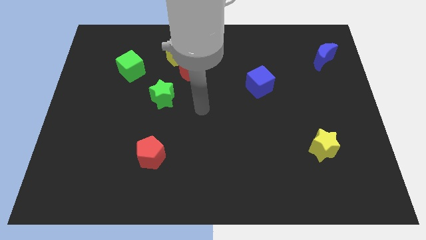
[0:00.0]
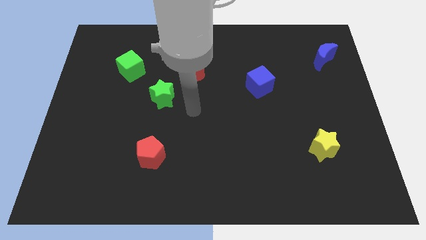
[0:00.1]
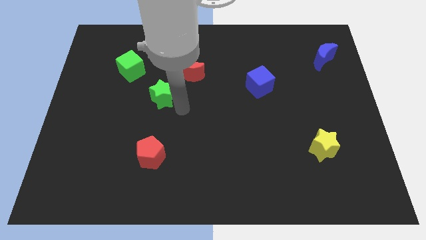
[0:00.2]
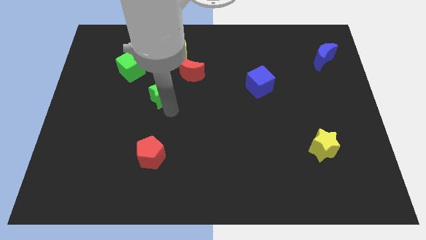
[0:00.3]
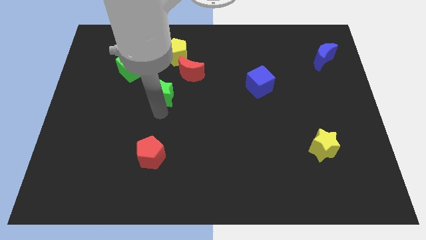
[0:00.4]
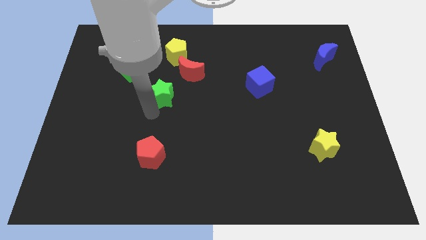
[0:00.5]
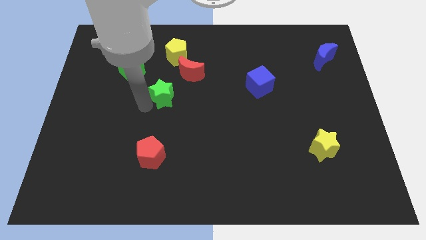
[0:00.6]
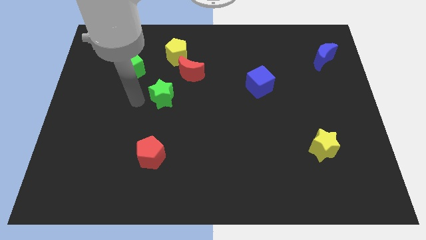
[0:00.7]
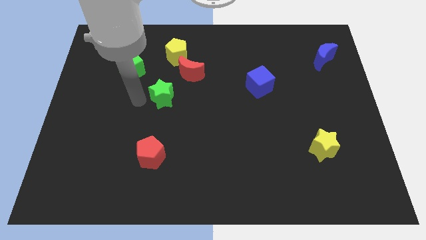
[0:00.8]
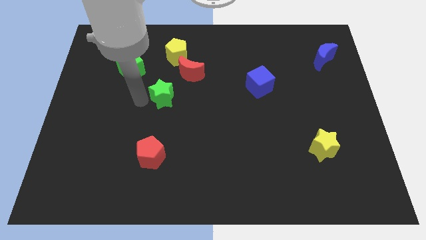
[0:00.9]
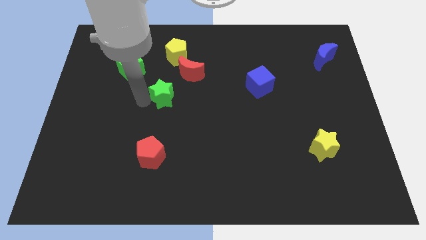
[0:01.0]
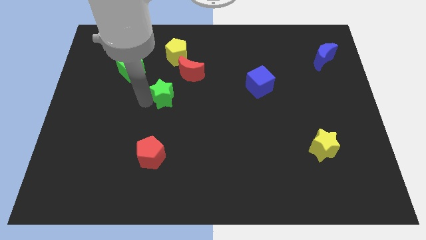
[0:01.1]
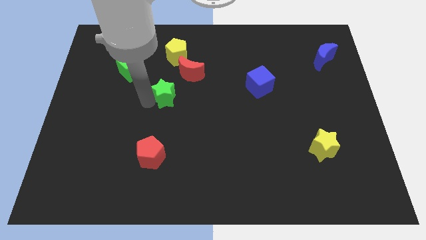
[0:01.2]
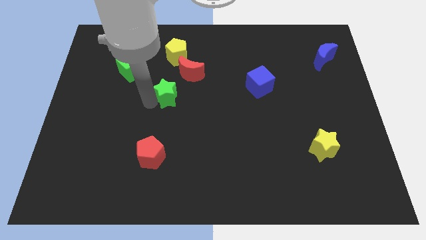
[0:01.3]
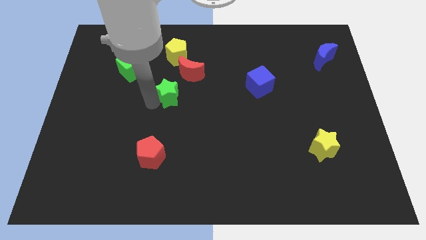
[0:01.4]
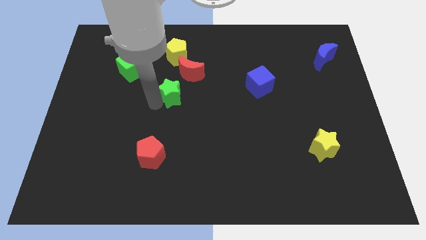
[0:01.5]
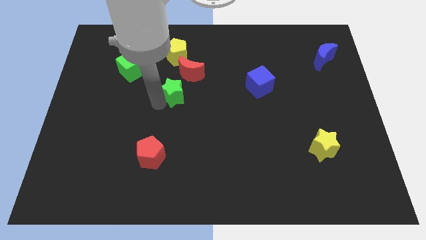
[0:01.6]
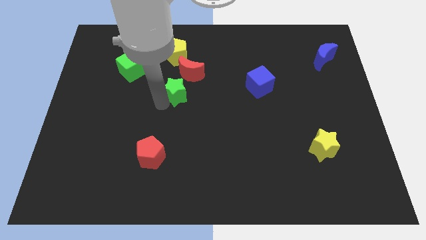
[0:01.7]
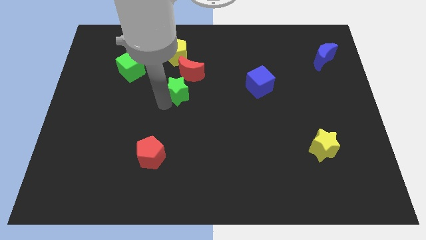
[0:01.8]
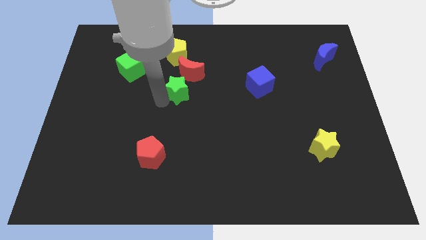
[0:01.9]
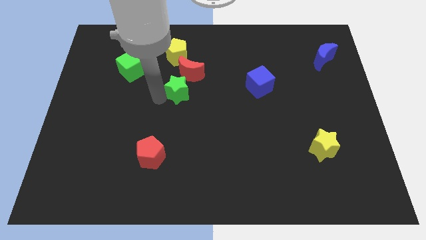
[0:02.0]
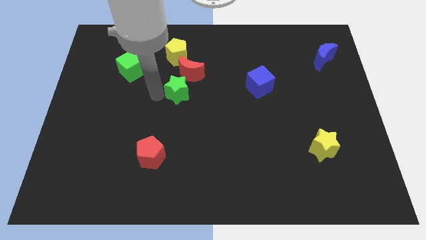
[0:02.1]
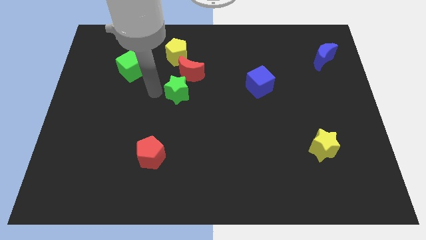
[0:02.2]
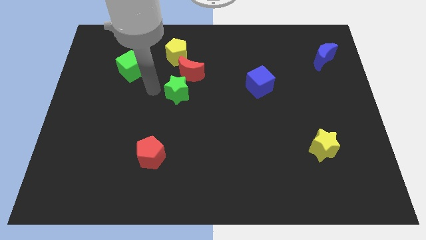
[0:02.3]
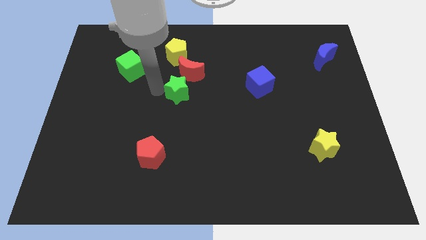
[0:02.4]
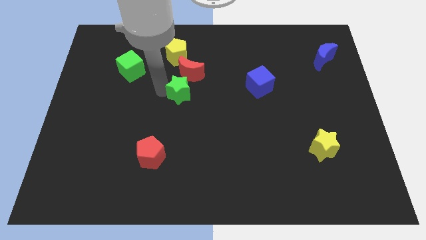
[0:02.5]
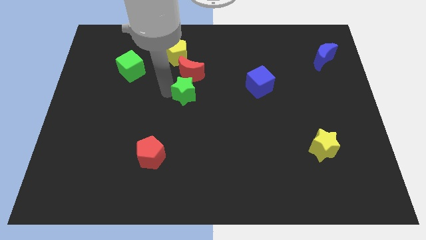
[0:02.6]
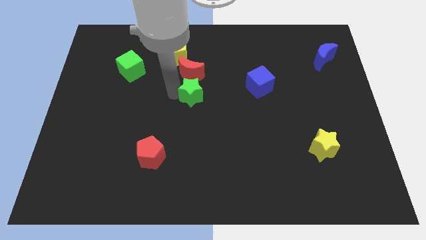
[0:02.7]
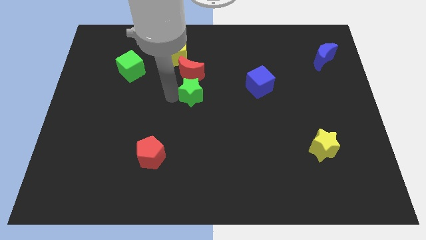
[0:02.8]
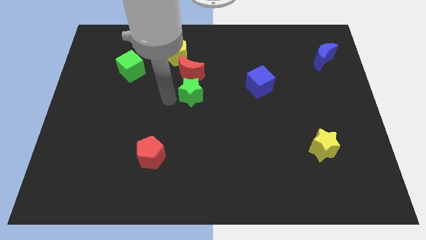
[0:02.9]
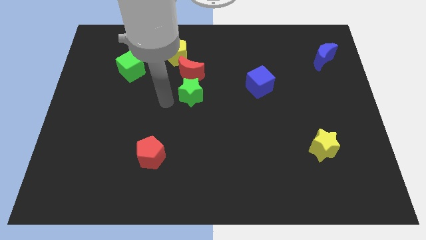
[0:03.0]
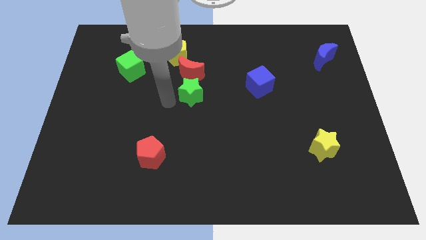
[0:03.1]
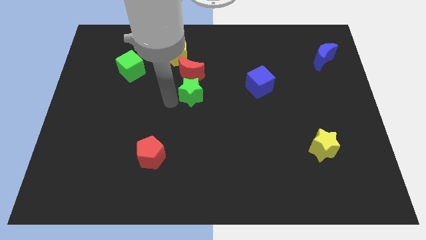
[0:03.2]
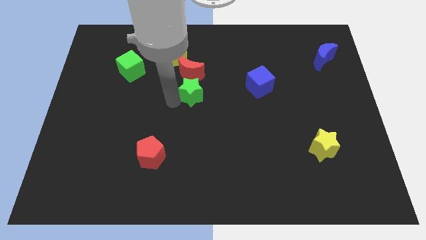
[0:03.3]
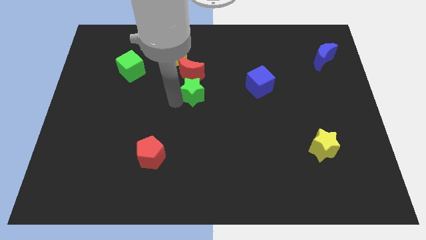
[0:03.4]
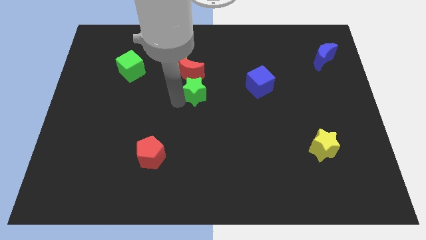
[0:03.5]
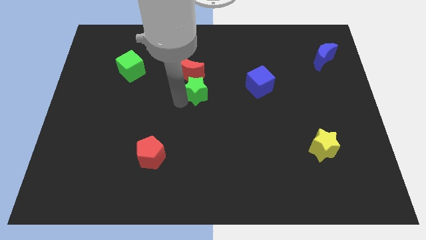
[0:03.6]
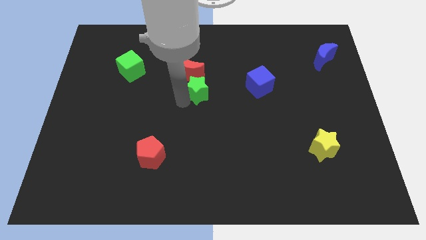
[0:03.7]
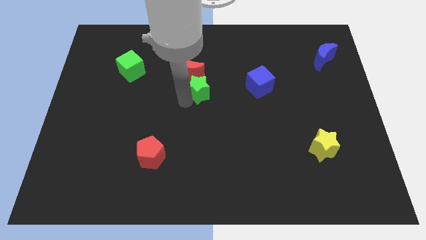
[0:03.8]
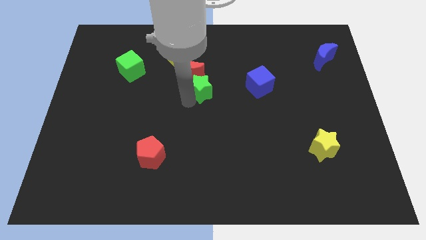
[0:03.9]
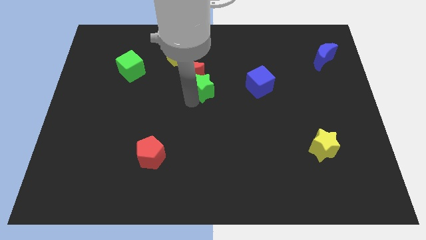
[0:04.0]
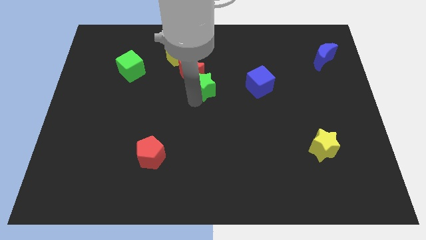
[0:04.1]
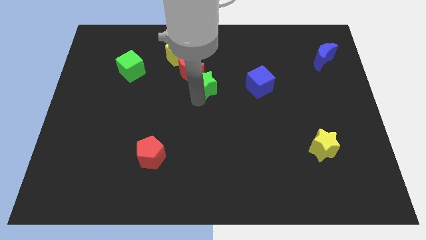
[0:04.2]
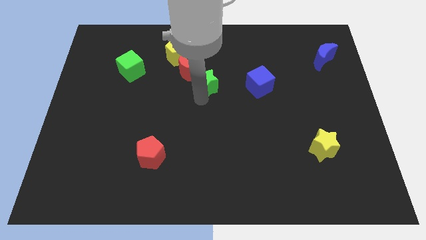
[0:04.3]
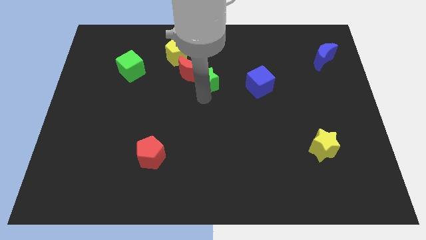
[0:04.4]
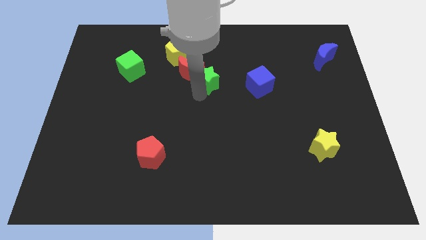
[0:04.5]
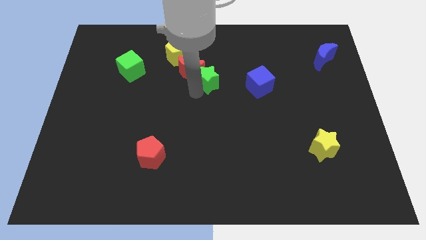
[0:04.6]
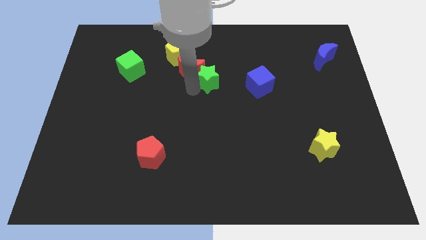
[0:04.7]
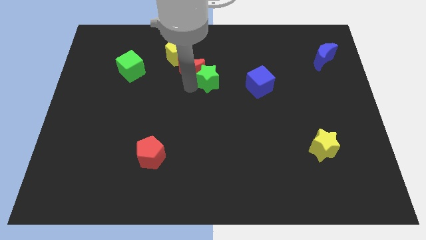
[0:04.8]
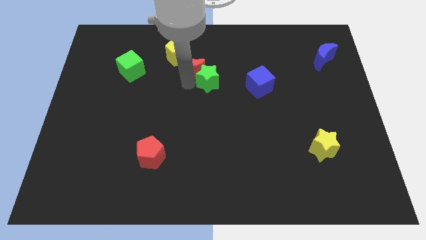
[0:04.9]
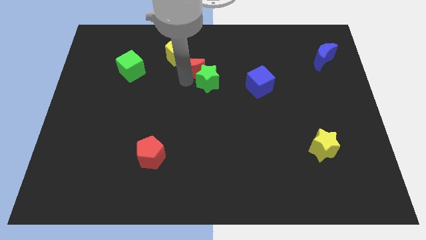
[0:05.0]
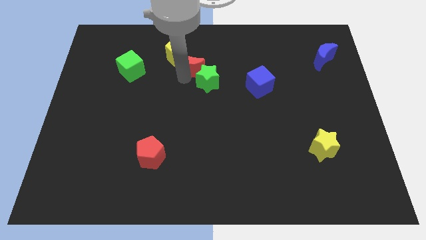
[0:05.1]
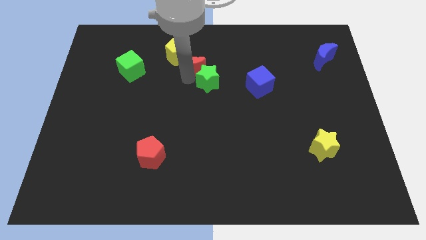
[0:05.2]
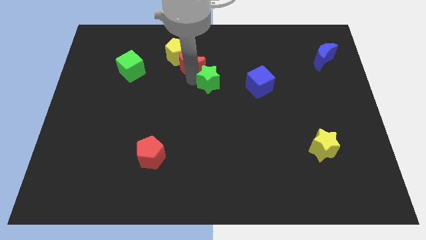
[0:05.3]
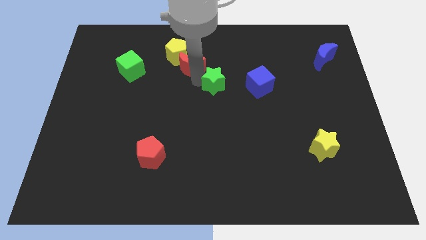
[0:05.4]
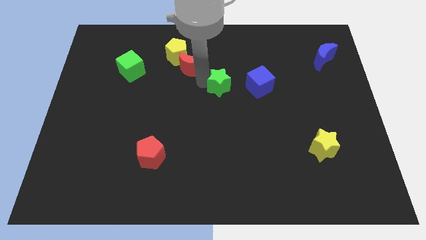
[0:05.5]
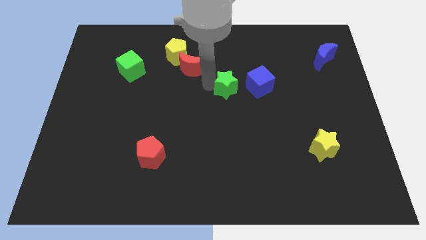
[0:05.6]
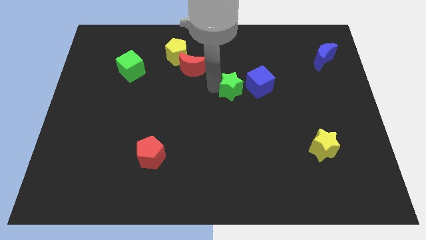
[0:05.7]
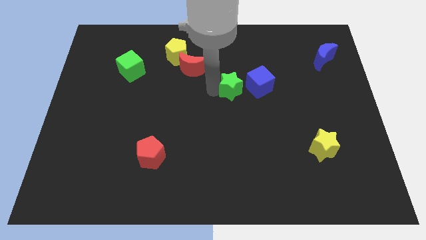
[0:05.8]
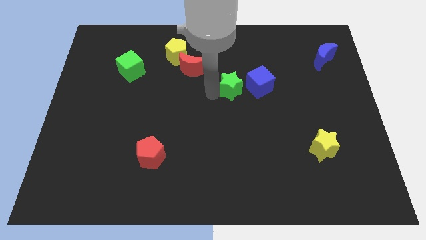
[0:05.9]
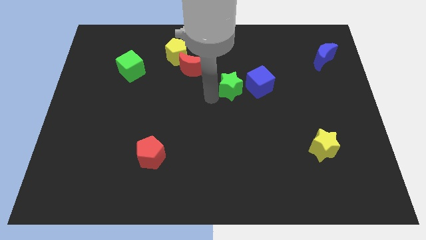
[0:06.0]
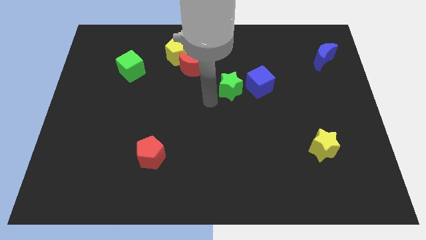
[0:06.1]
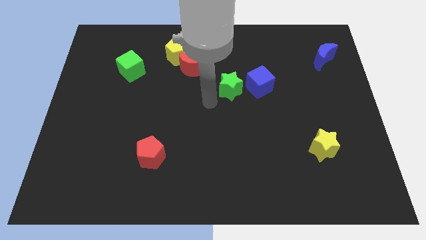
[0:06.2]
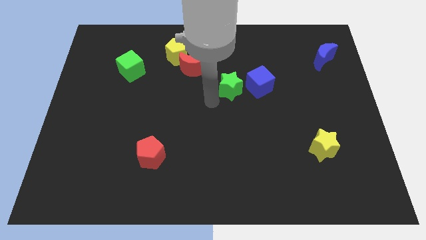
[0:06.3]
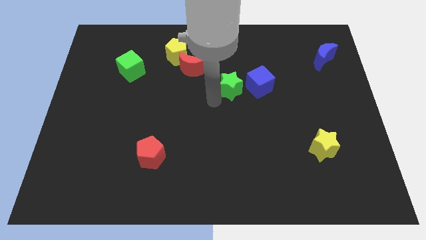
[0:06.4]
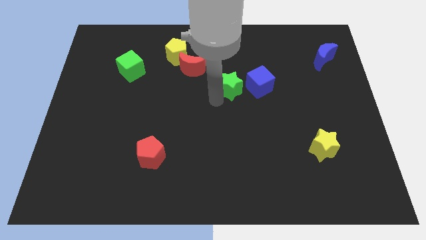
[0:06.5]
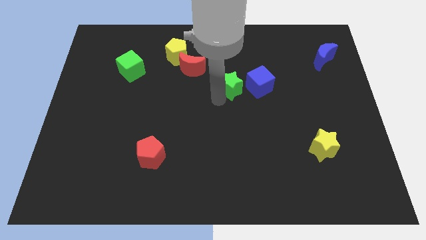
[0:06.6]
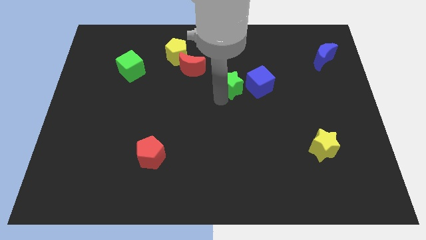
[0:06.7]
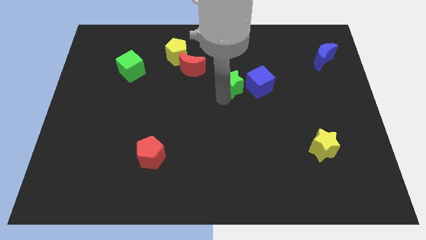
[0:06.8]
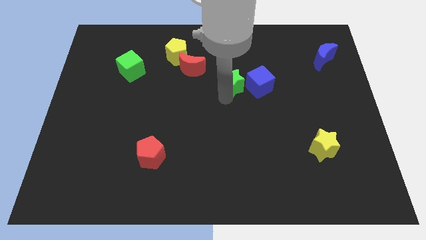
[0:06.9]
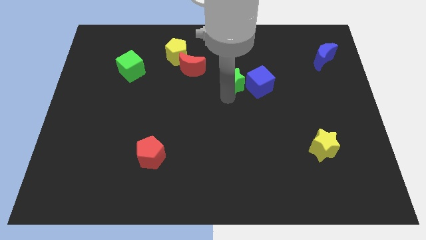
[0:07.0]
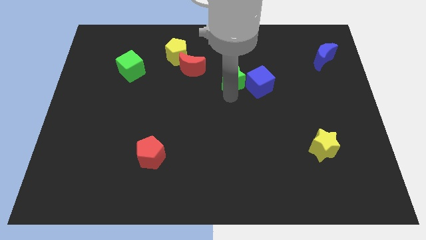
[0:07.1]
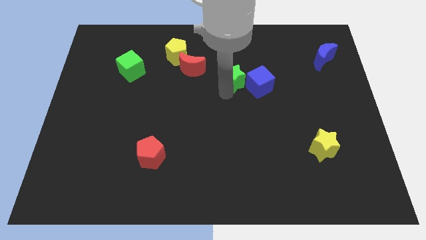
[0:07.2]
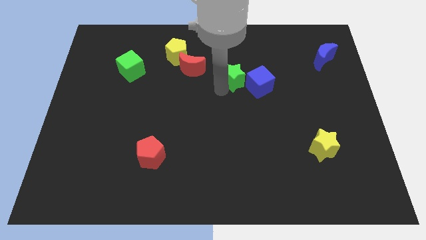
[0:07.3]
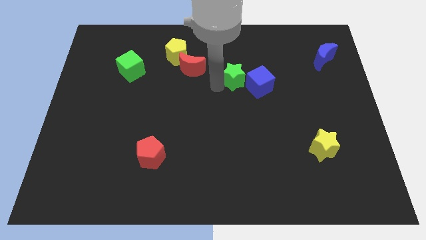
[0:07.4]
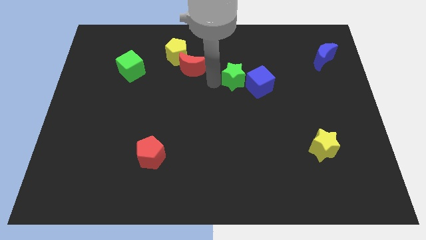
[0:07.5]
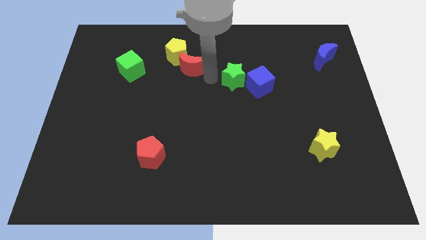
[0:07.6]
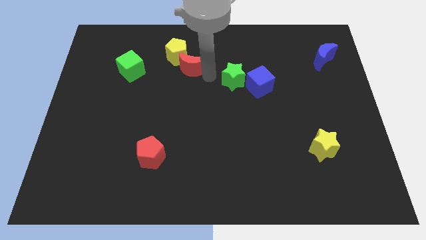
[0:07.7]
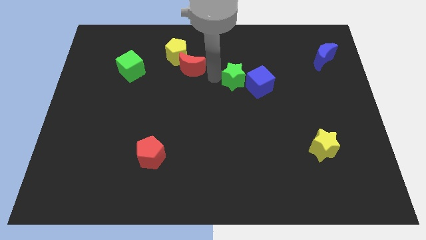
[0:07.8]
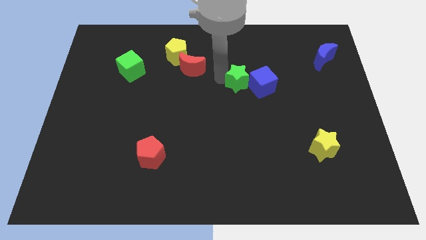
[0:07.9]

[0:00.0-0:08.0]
put the green star towards the blue cube
